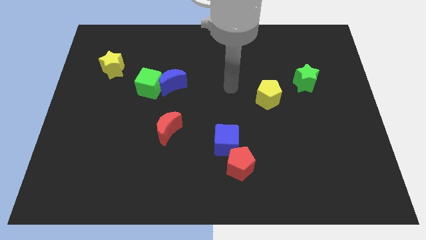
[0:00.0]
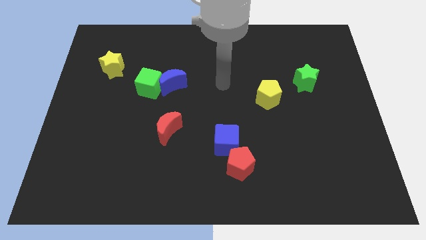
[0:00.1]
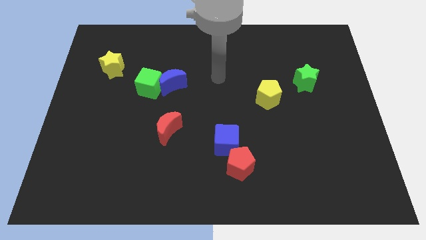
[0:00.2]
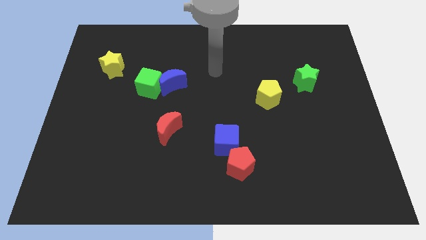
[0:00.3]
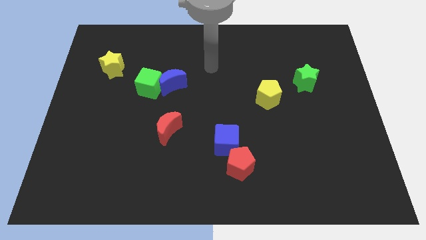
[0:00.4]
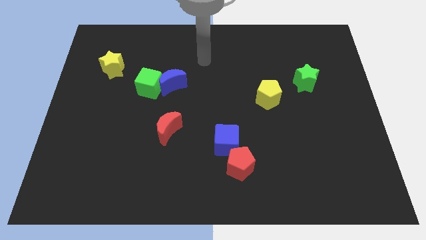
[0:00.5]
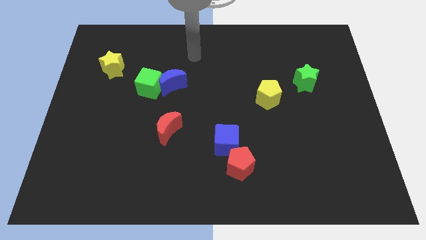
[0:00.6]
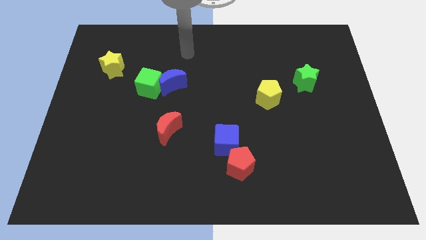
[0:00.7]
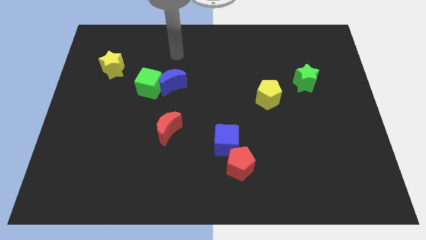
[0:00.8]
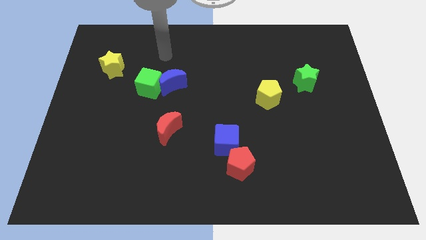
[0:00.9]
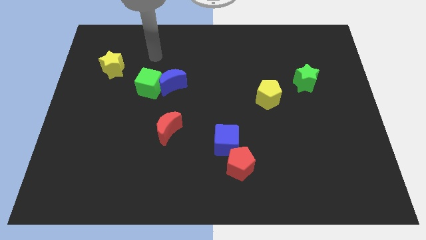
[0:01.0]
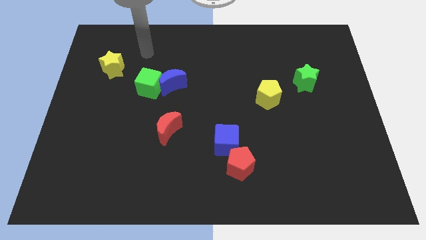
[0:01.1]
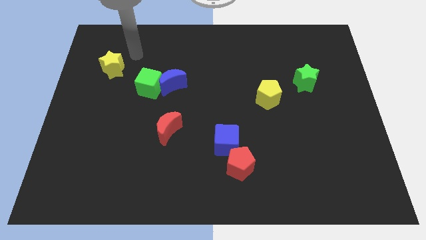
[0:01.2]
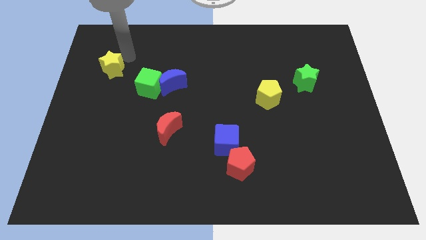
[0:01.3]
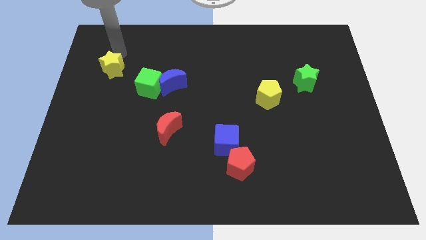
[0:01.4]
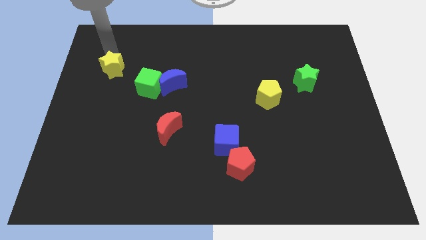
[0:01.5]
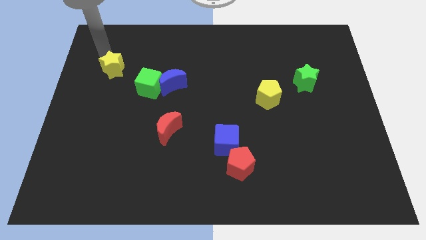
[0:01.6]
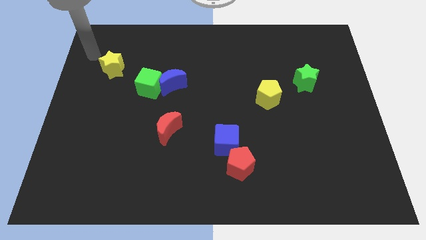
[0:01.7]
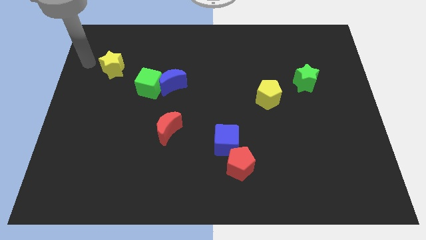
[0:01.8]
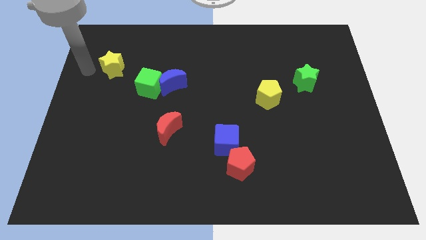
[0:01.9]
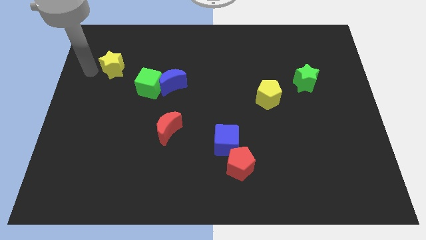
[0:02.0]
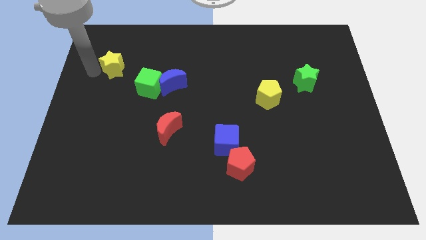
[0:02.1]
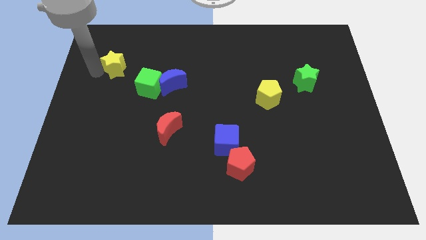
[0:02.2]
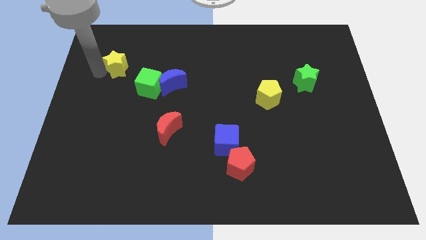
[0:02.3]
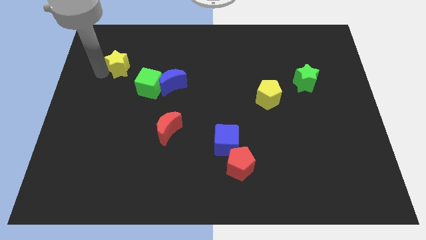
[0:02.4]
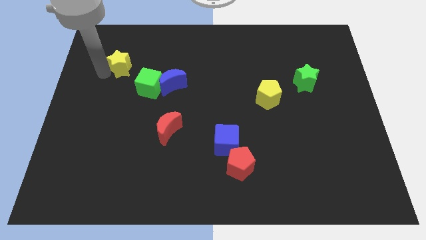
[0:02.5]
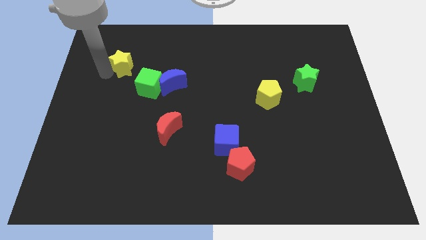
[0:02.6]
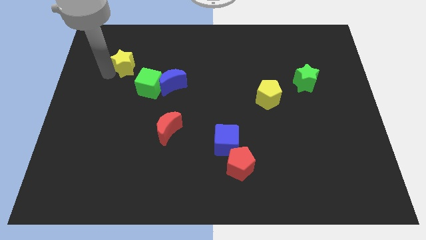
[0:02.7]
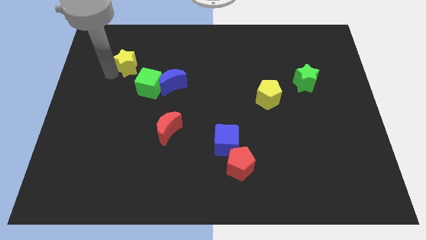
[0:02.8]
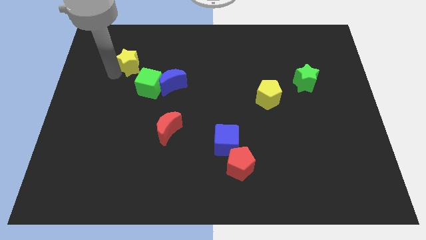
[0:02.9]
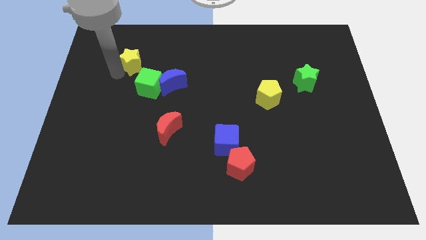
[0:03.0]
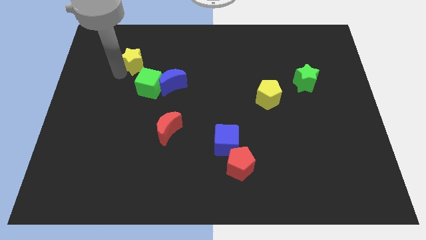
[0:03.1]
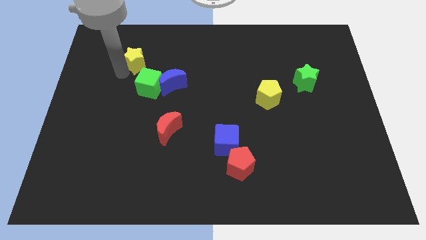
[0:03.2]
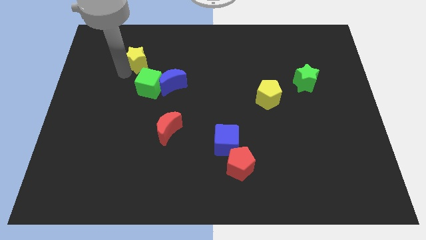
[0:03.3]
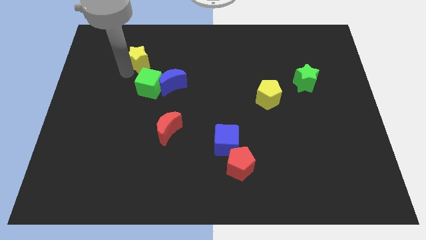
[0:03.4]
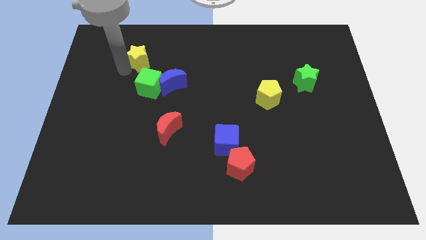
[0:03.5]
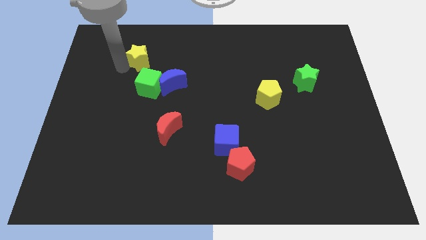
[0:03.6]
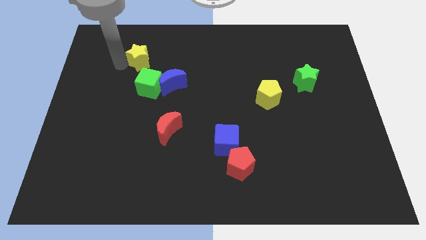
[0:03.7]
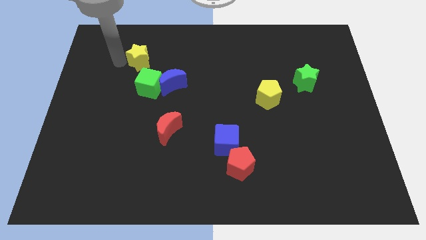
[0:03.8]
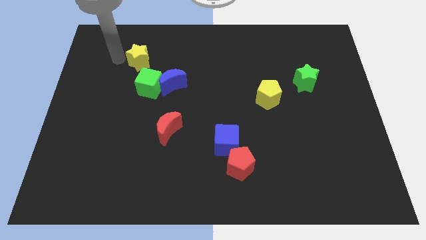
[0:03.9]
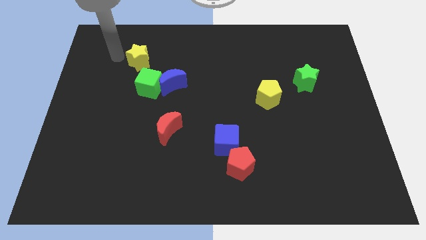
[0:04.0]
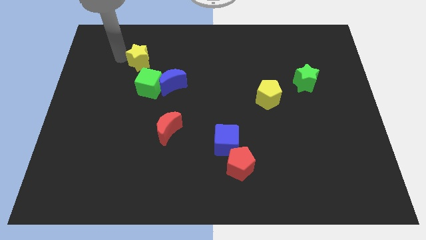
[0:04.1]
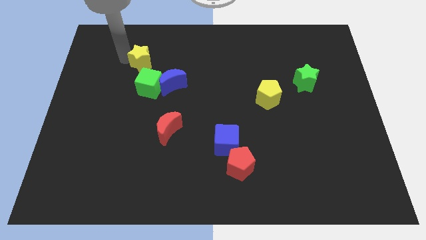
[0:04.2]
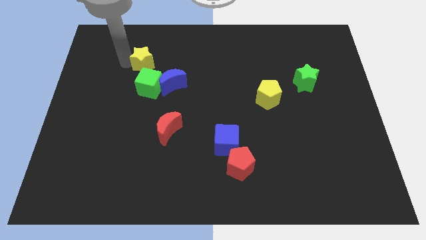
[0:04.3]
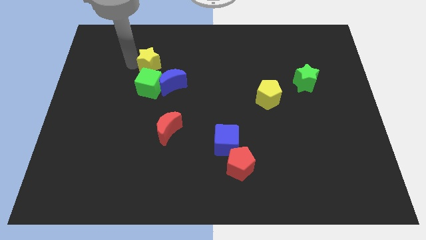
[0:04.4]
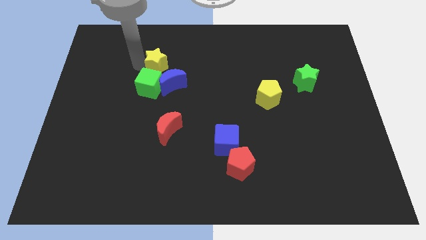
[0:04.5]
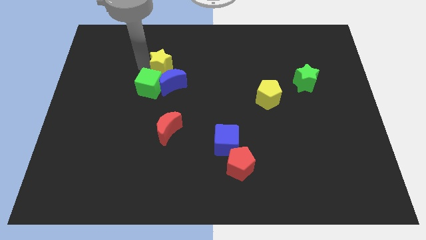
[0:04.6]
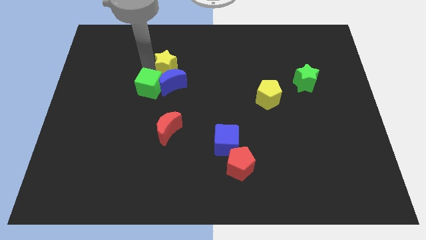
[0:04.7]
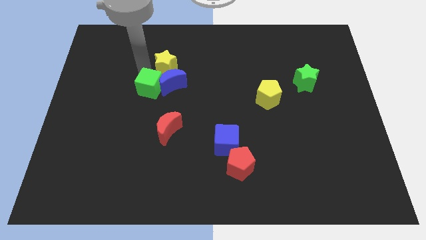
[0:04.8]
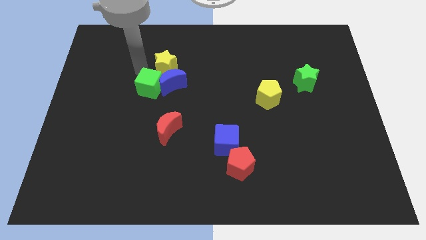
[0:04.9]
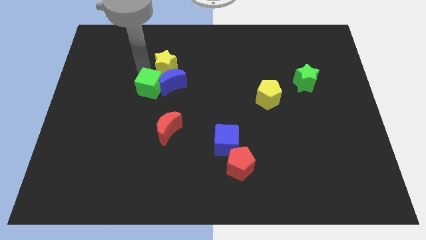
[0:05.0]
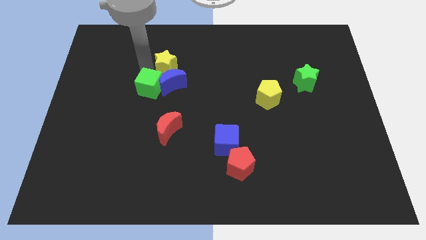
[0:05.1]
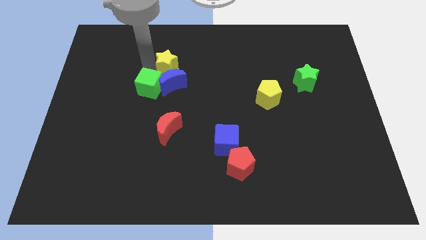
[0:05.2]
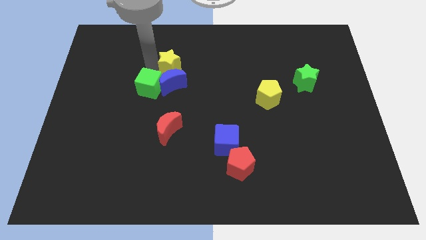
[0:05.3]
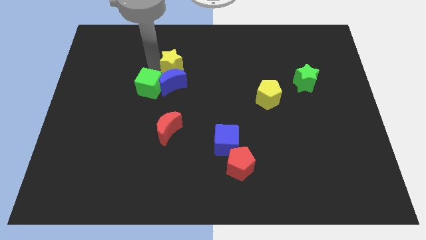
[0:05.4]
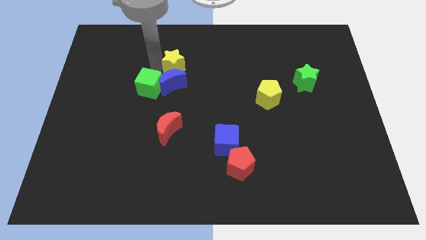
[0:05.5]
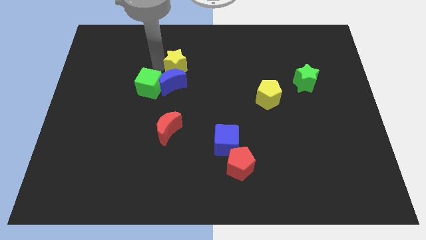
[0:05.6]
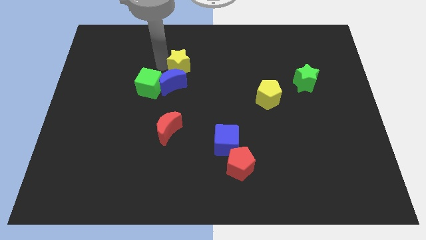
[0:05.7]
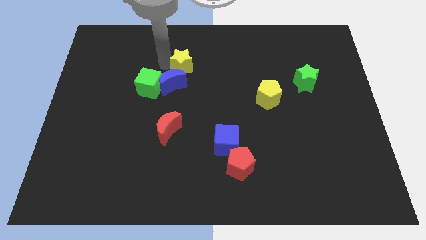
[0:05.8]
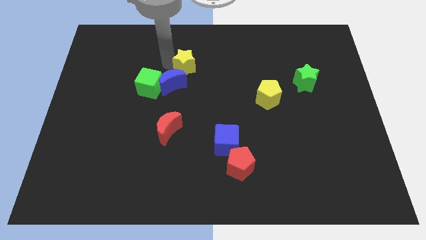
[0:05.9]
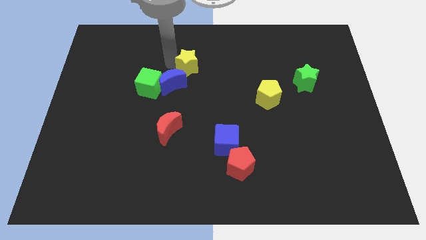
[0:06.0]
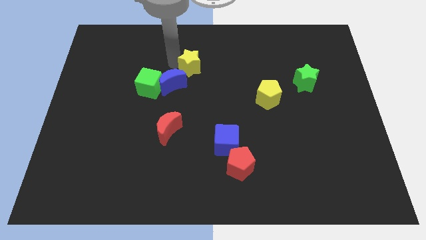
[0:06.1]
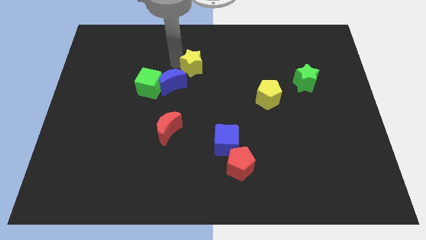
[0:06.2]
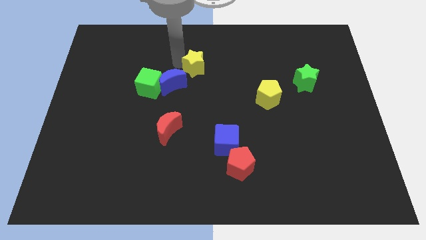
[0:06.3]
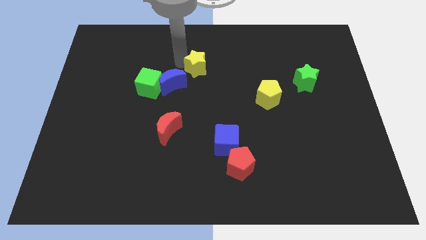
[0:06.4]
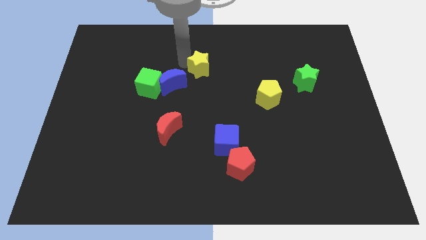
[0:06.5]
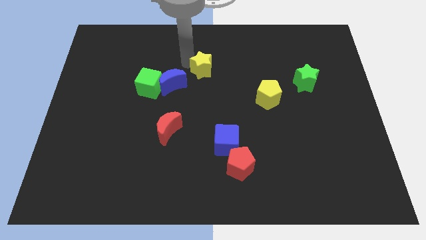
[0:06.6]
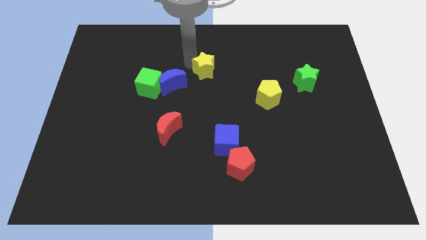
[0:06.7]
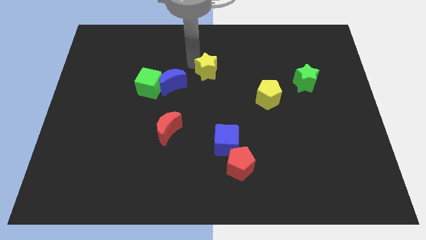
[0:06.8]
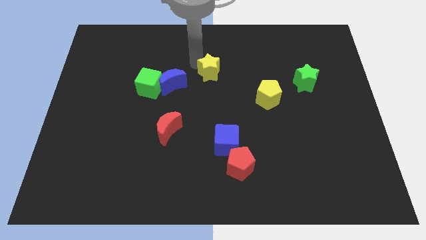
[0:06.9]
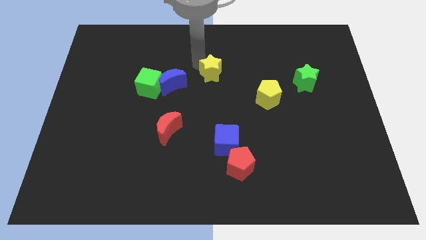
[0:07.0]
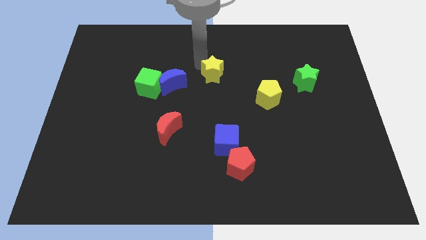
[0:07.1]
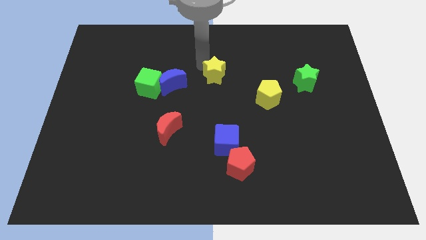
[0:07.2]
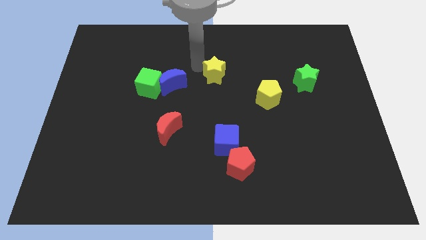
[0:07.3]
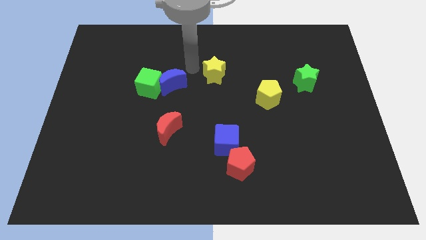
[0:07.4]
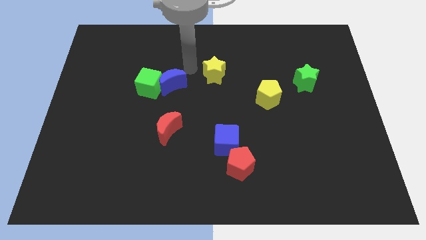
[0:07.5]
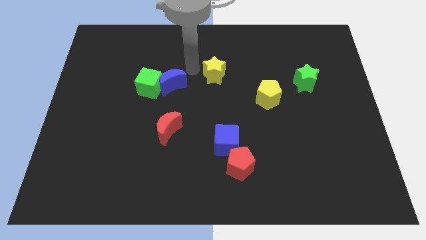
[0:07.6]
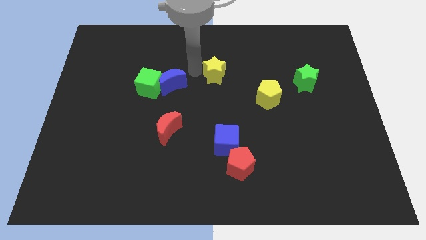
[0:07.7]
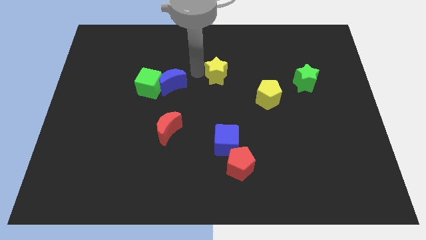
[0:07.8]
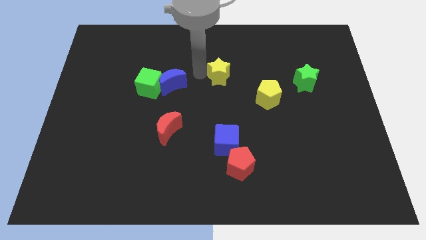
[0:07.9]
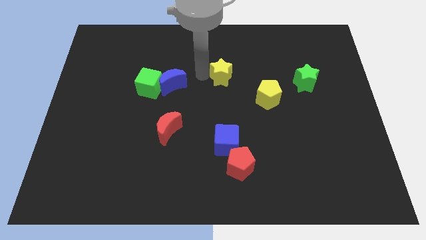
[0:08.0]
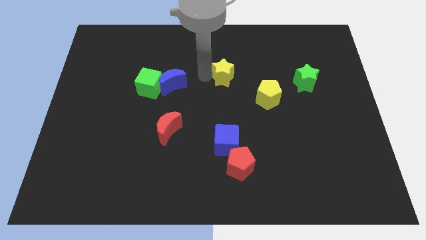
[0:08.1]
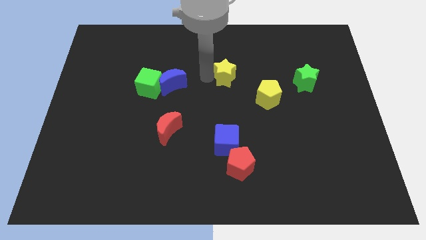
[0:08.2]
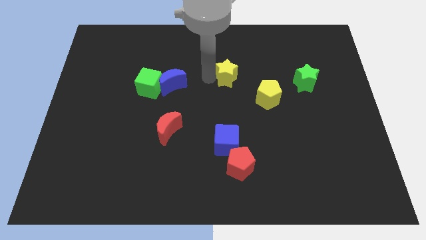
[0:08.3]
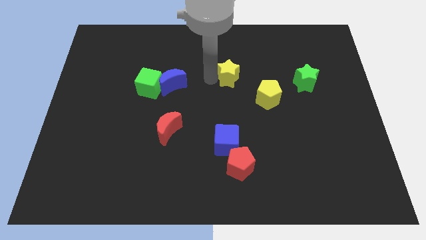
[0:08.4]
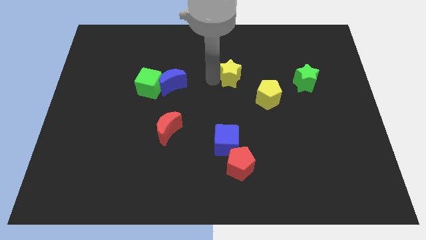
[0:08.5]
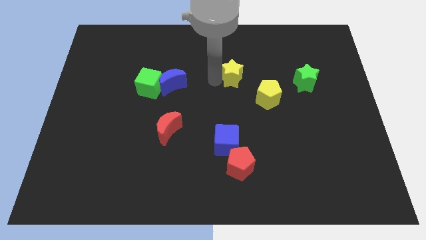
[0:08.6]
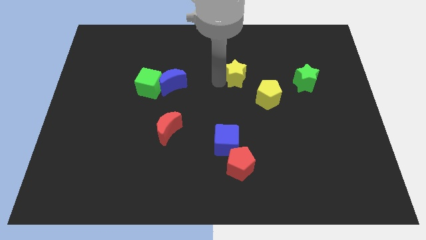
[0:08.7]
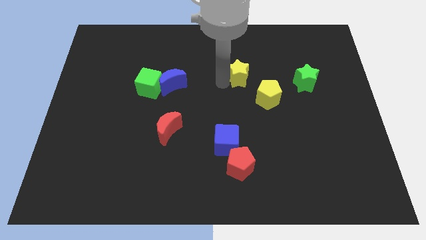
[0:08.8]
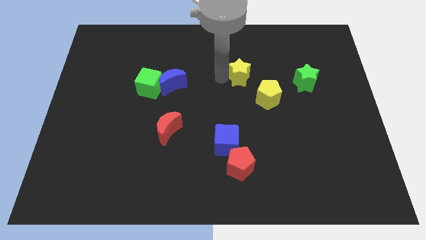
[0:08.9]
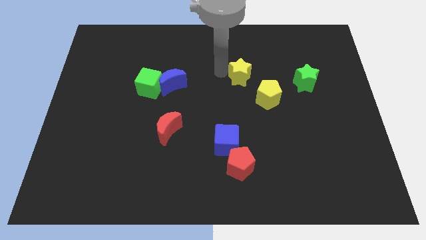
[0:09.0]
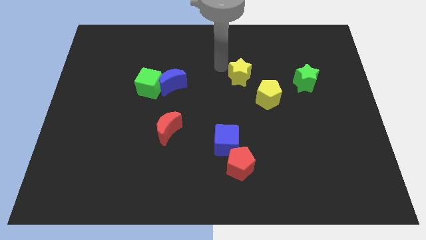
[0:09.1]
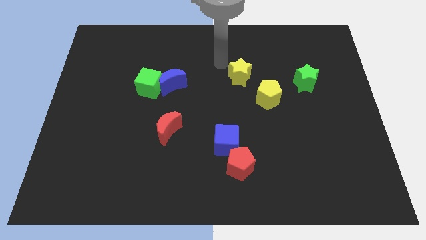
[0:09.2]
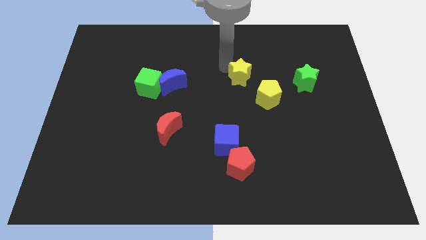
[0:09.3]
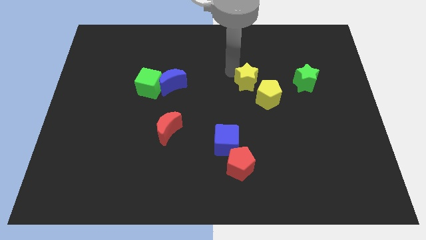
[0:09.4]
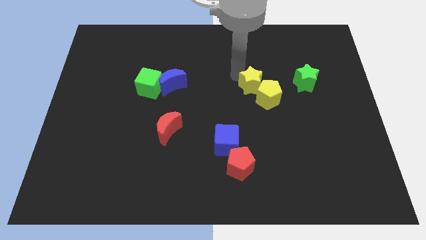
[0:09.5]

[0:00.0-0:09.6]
push the yellow star towards the yellow pentagon
